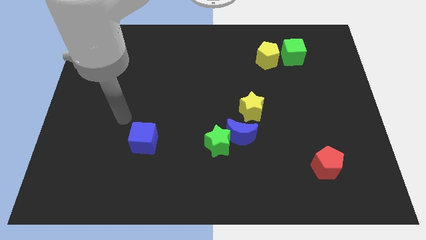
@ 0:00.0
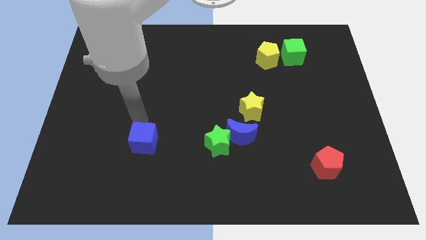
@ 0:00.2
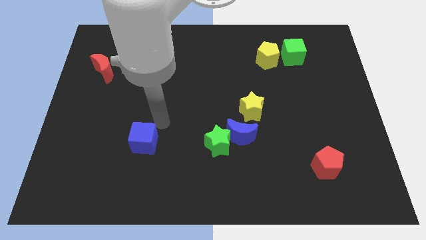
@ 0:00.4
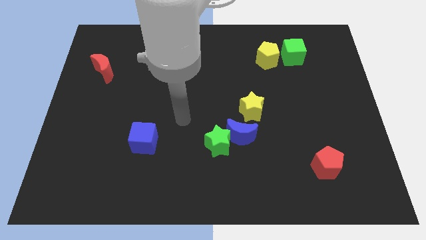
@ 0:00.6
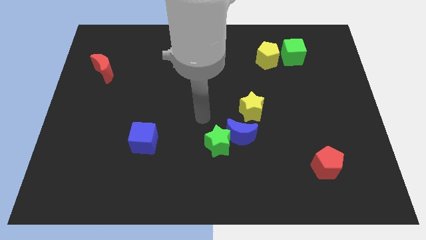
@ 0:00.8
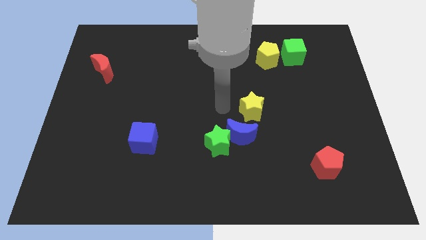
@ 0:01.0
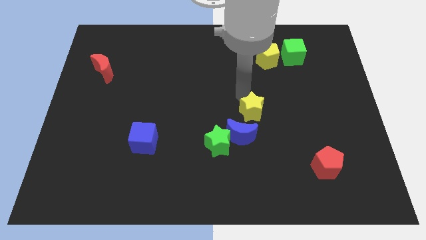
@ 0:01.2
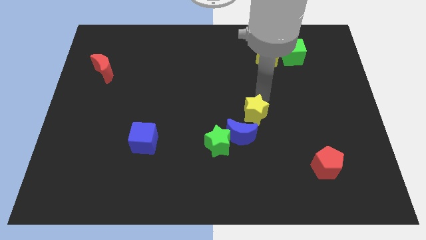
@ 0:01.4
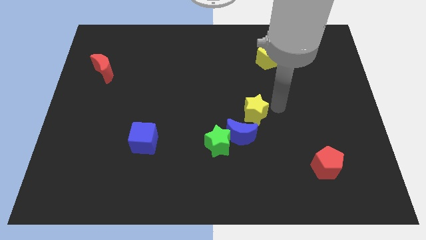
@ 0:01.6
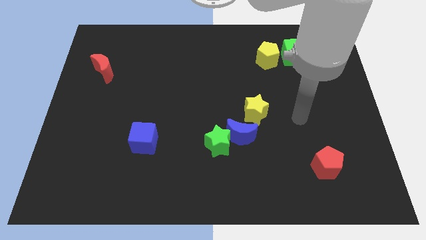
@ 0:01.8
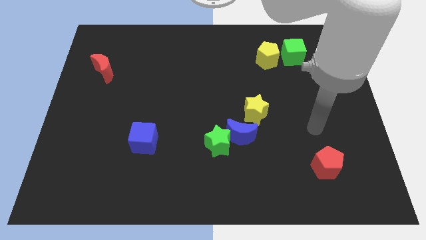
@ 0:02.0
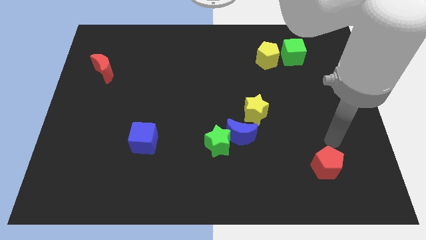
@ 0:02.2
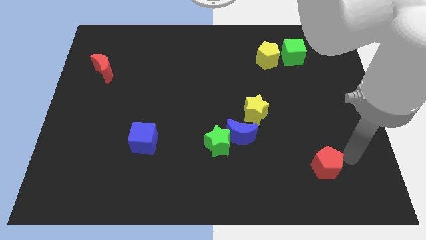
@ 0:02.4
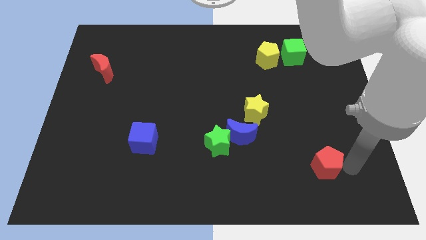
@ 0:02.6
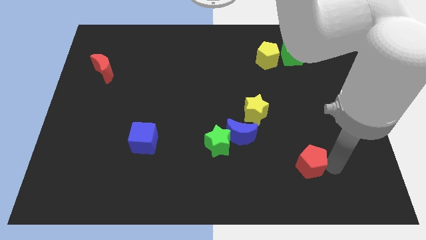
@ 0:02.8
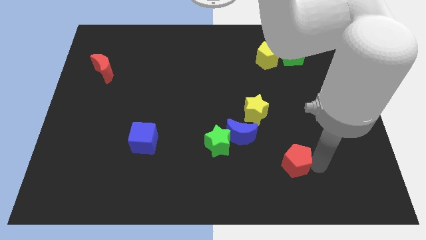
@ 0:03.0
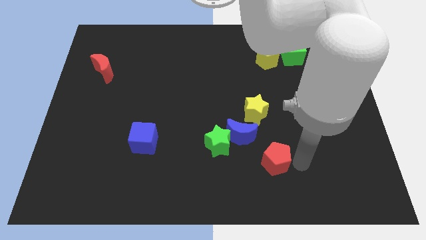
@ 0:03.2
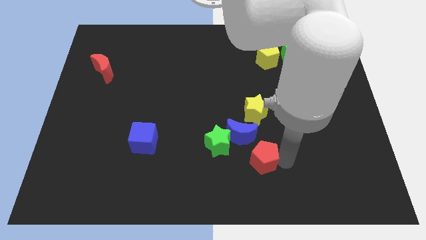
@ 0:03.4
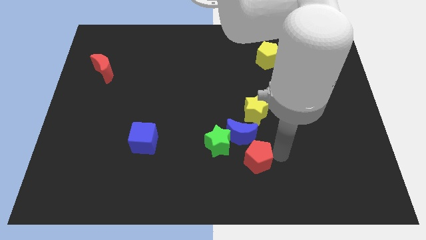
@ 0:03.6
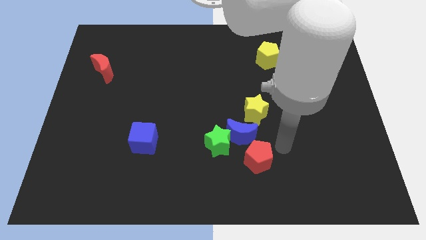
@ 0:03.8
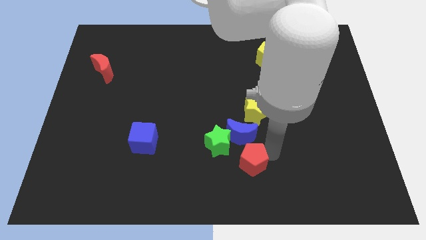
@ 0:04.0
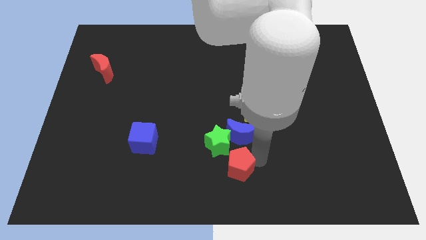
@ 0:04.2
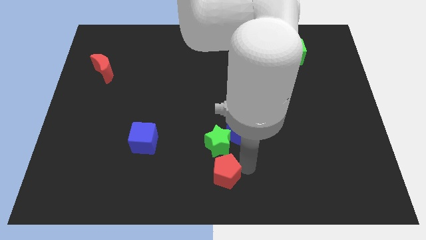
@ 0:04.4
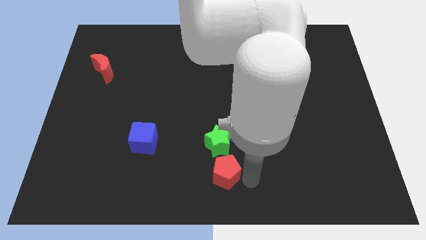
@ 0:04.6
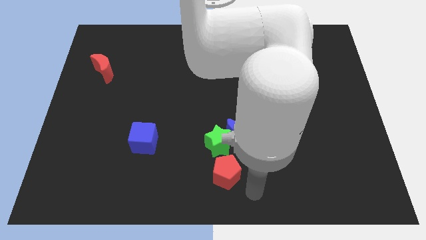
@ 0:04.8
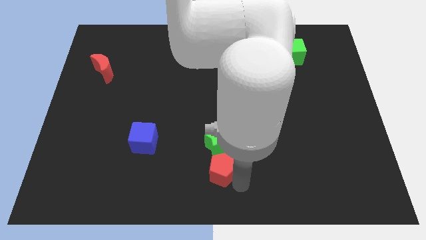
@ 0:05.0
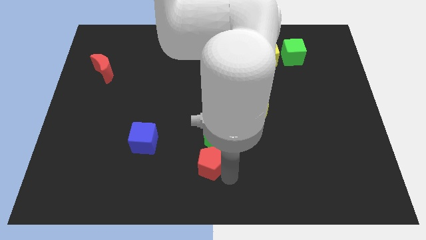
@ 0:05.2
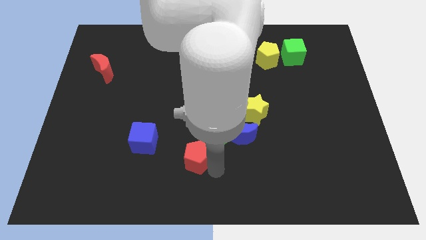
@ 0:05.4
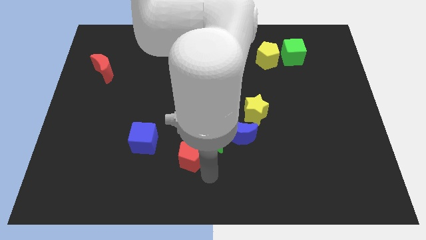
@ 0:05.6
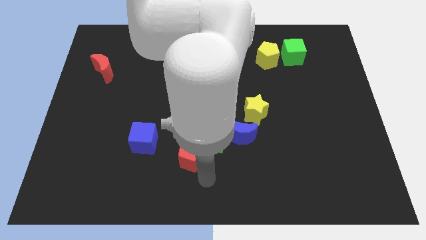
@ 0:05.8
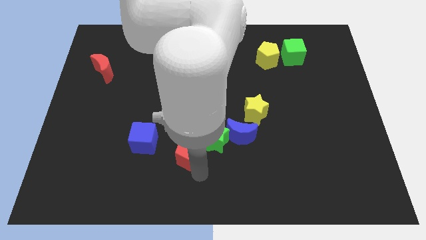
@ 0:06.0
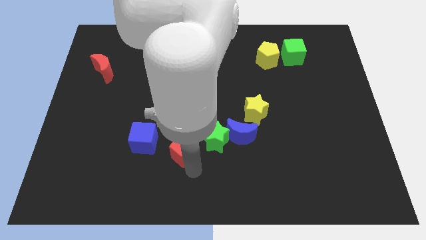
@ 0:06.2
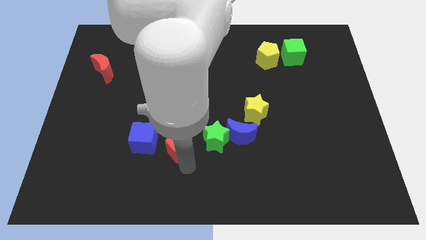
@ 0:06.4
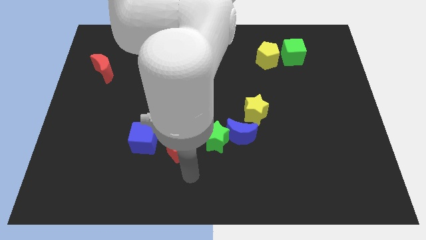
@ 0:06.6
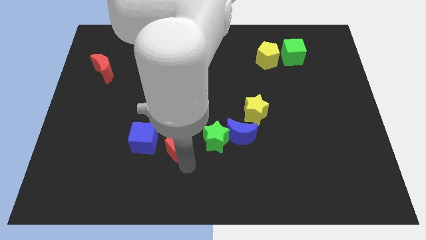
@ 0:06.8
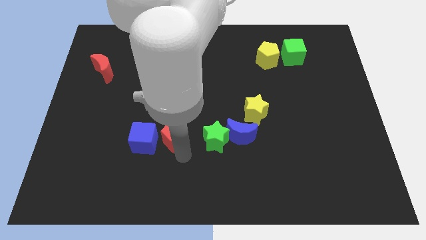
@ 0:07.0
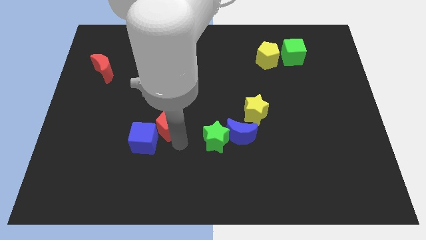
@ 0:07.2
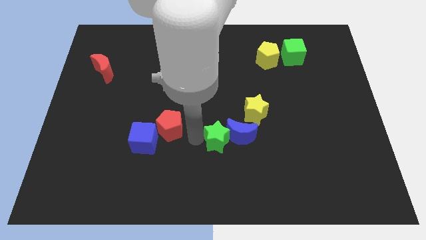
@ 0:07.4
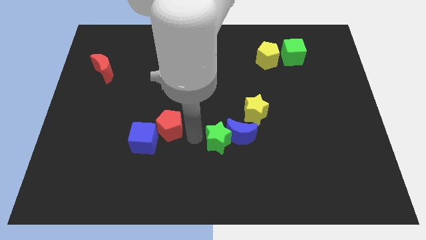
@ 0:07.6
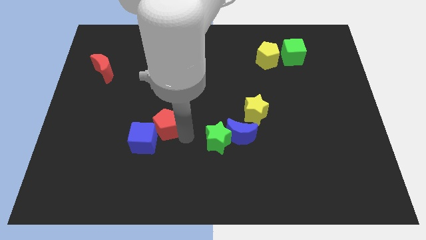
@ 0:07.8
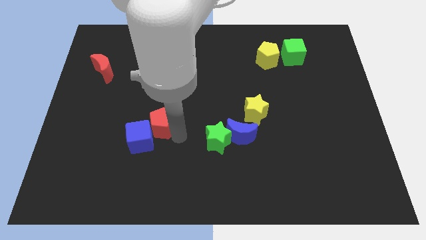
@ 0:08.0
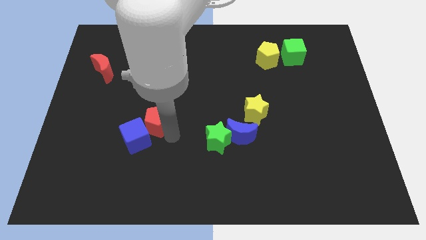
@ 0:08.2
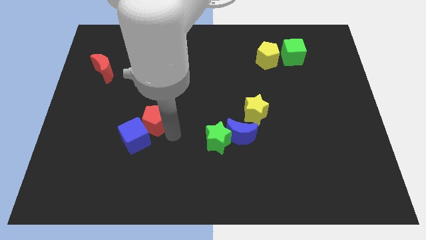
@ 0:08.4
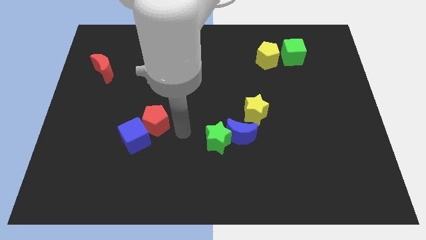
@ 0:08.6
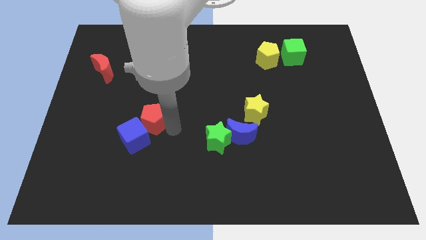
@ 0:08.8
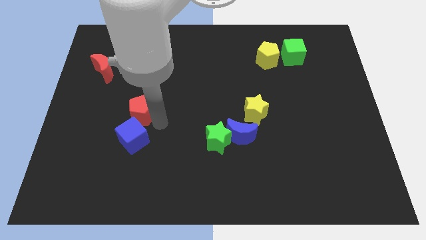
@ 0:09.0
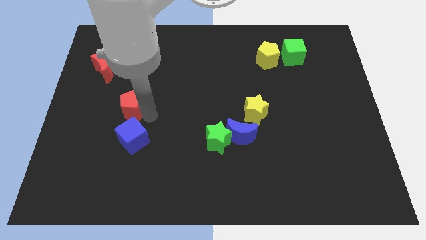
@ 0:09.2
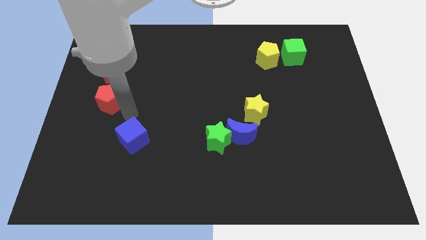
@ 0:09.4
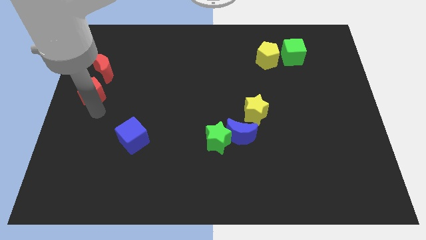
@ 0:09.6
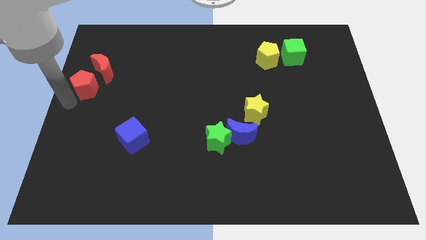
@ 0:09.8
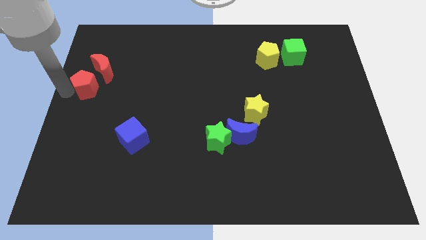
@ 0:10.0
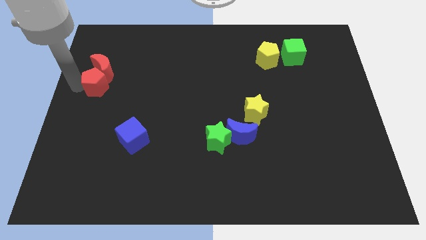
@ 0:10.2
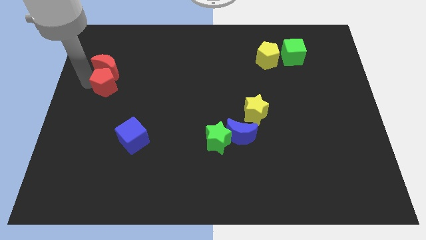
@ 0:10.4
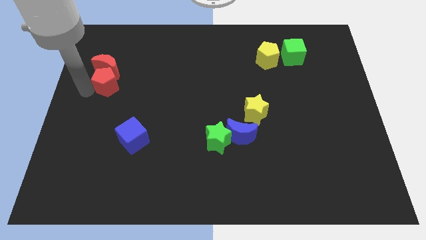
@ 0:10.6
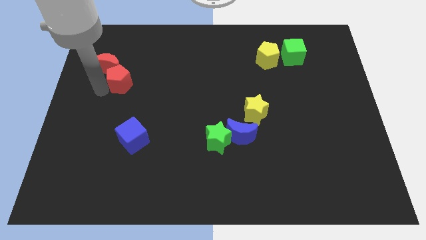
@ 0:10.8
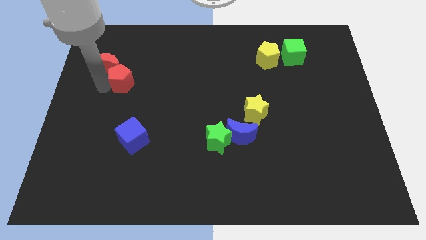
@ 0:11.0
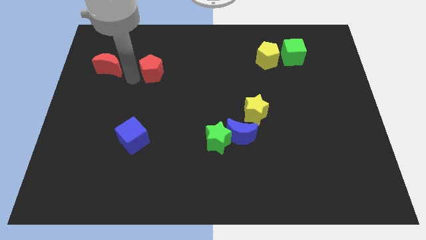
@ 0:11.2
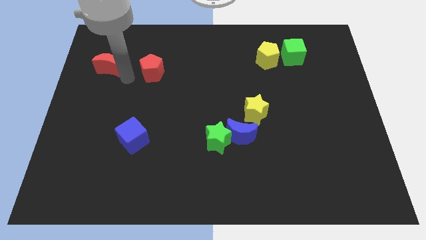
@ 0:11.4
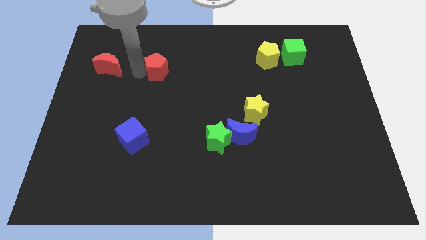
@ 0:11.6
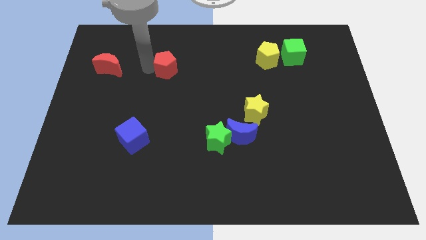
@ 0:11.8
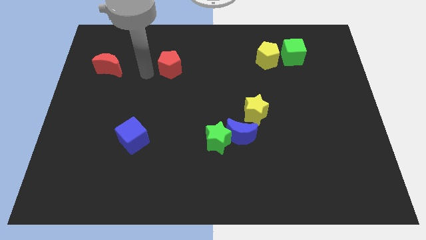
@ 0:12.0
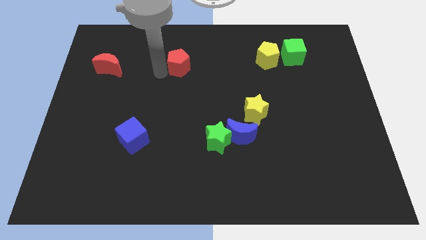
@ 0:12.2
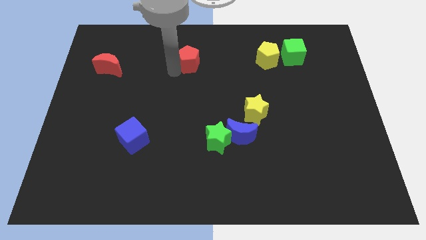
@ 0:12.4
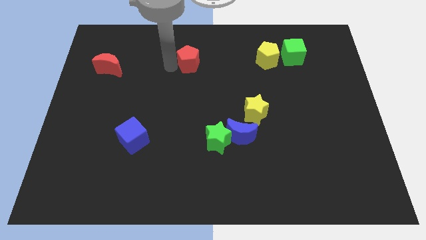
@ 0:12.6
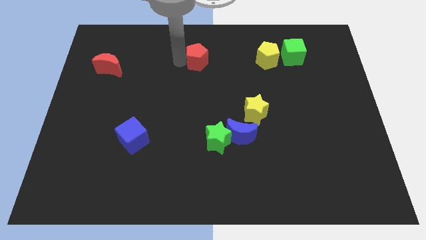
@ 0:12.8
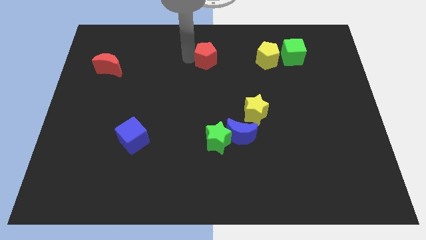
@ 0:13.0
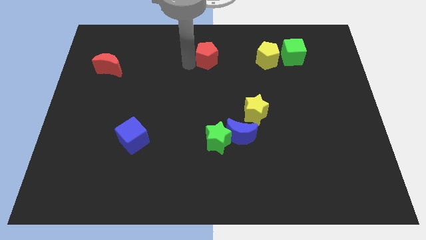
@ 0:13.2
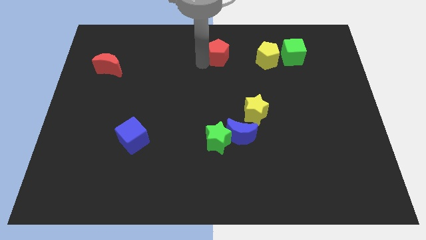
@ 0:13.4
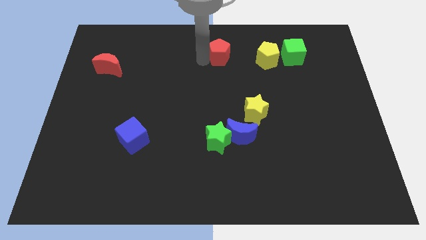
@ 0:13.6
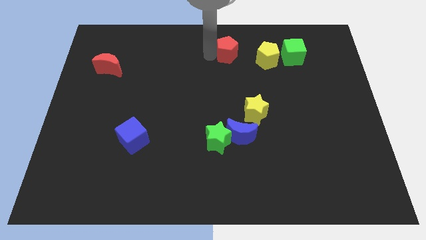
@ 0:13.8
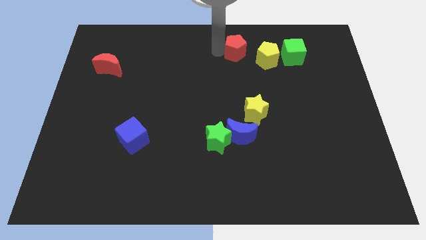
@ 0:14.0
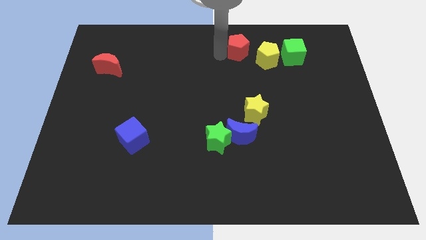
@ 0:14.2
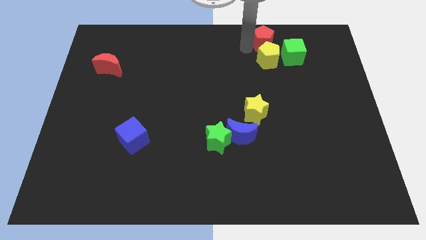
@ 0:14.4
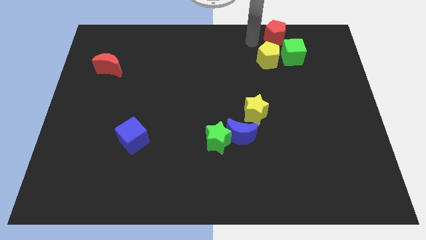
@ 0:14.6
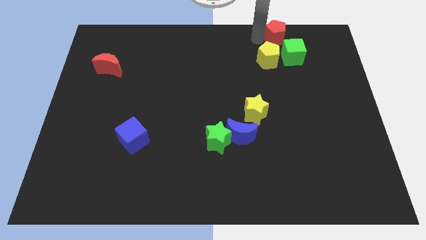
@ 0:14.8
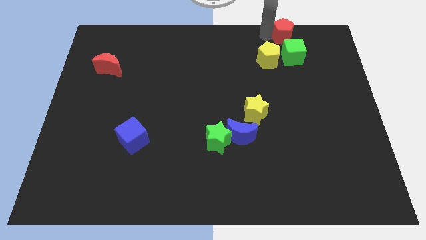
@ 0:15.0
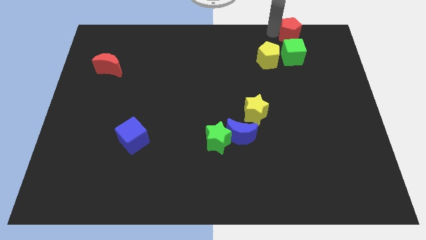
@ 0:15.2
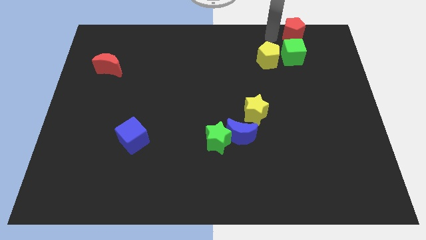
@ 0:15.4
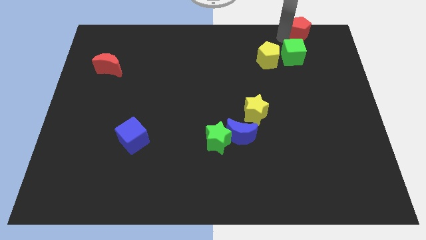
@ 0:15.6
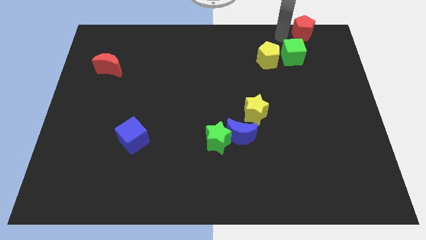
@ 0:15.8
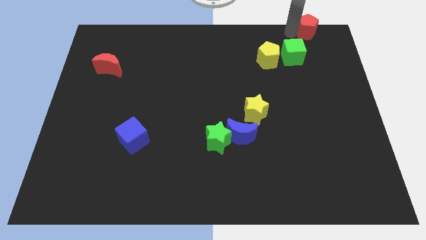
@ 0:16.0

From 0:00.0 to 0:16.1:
move the red pentagon to the upper right corner
